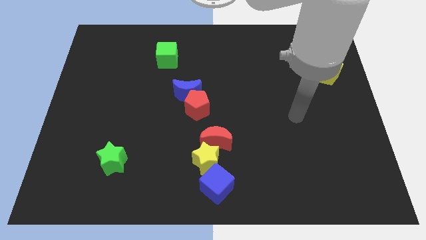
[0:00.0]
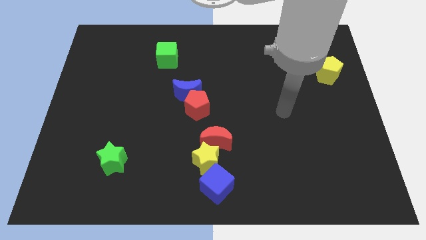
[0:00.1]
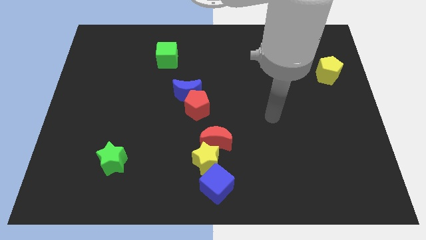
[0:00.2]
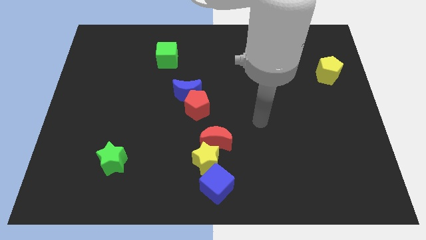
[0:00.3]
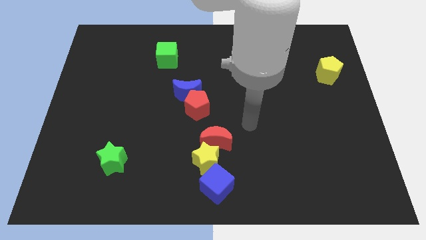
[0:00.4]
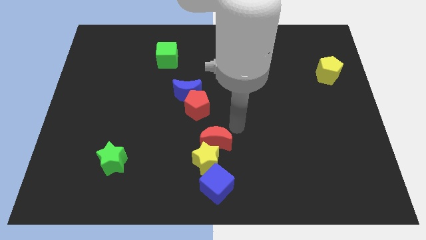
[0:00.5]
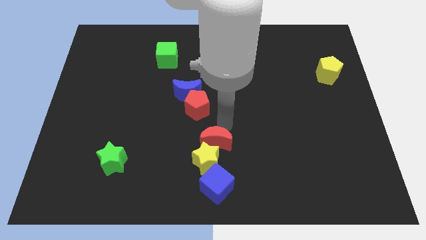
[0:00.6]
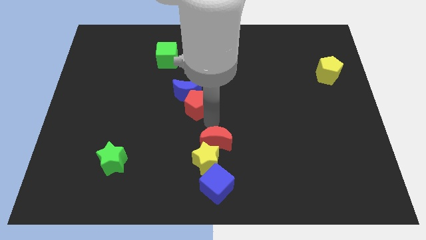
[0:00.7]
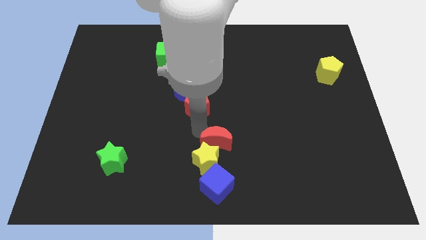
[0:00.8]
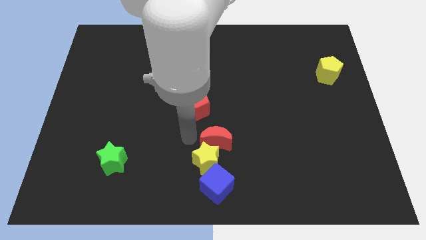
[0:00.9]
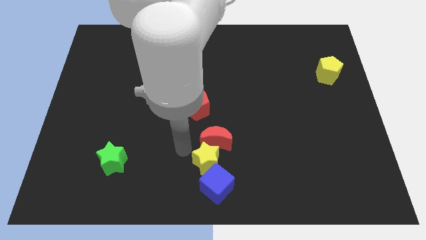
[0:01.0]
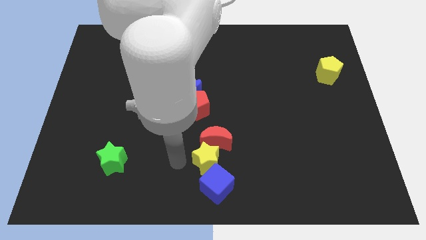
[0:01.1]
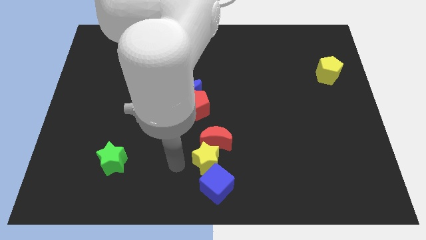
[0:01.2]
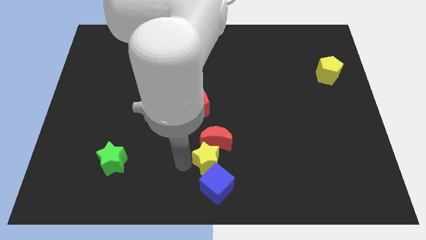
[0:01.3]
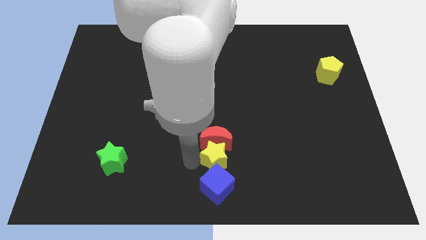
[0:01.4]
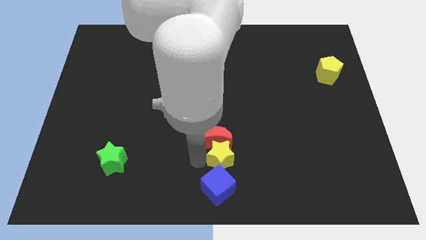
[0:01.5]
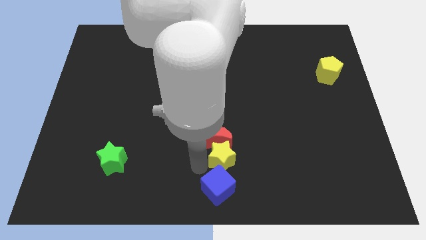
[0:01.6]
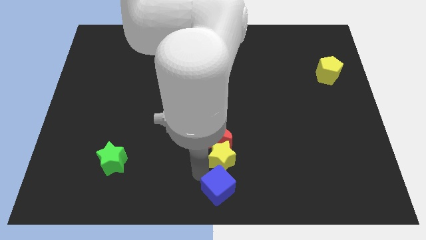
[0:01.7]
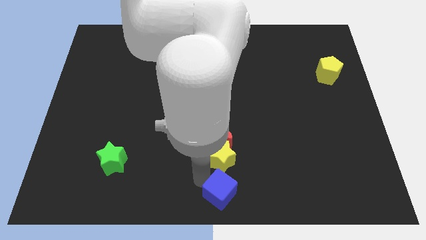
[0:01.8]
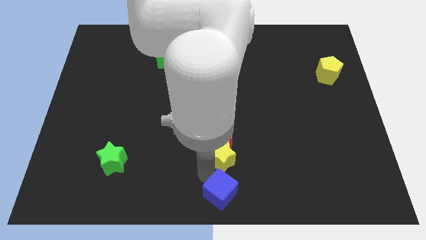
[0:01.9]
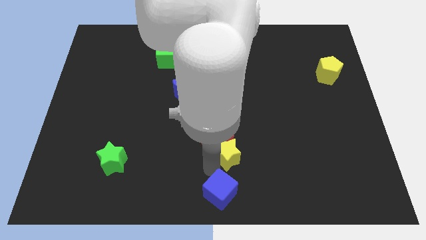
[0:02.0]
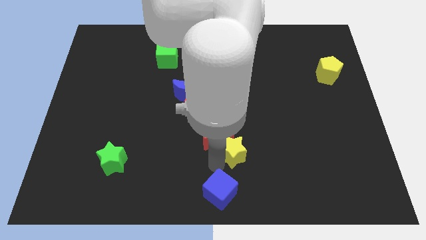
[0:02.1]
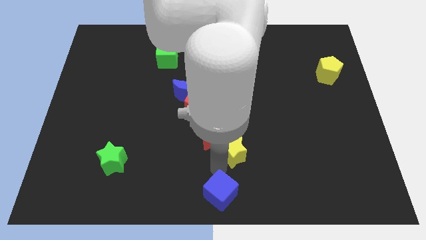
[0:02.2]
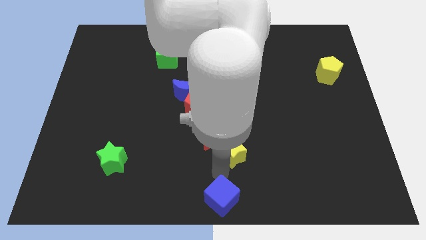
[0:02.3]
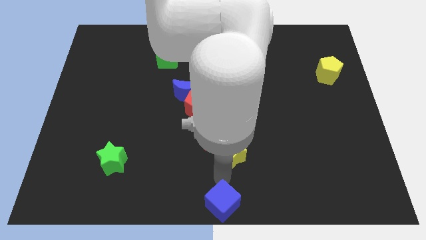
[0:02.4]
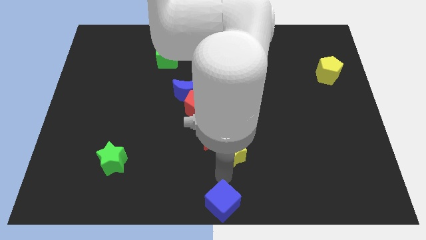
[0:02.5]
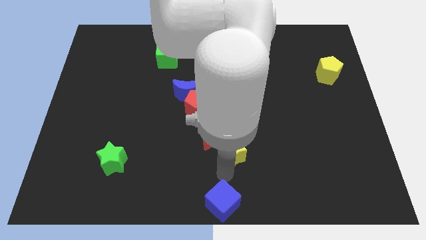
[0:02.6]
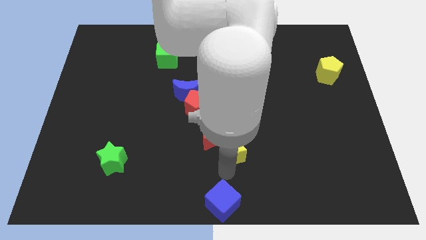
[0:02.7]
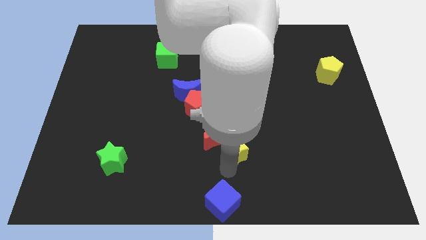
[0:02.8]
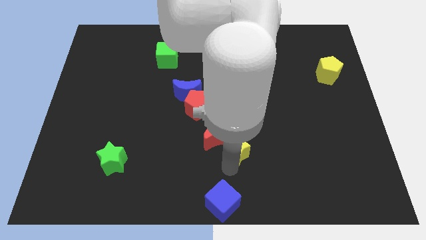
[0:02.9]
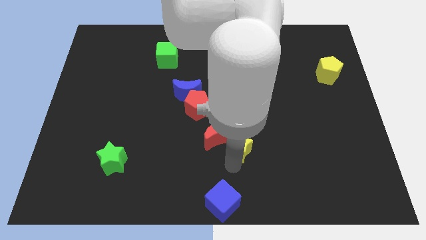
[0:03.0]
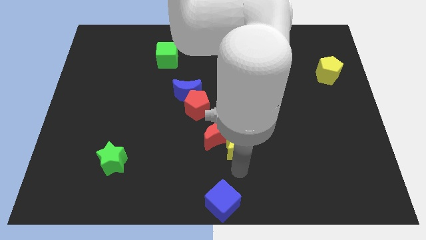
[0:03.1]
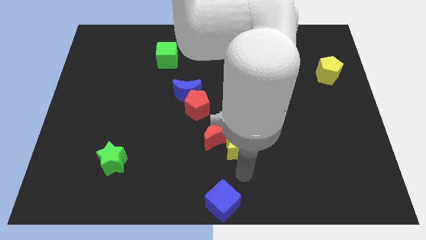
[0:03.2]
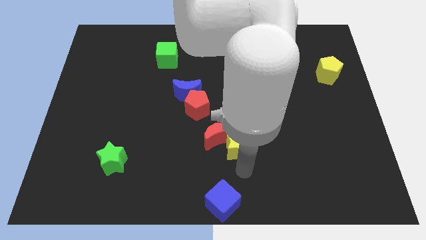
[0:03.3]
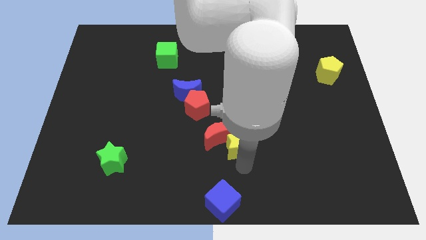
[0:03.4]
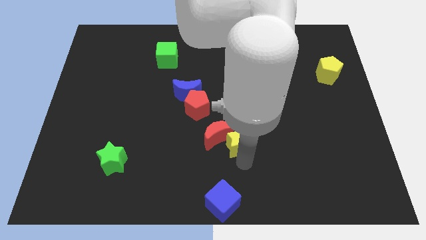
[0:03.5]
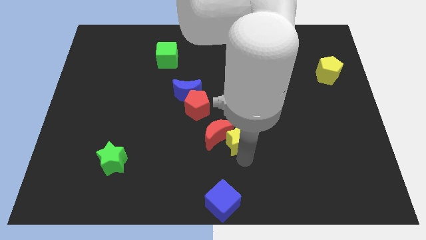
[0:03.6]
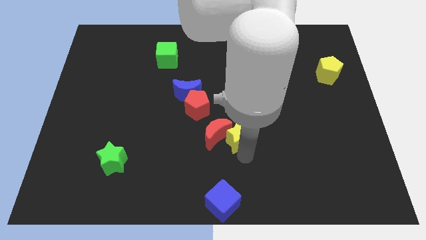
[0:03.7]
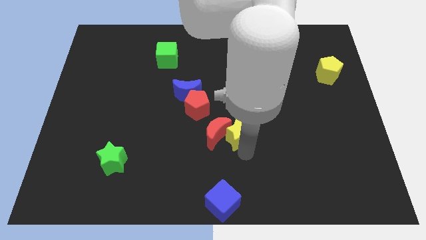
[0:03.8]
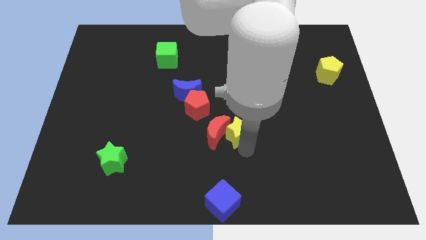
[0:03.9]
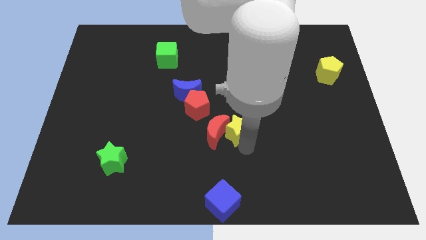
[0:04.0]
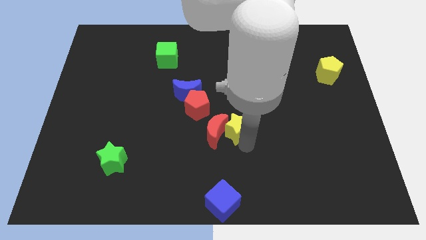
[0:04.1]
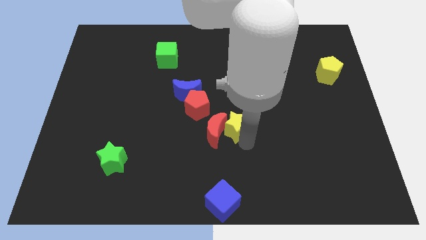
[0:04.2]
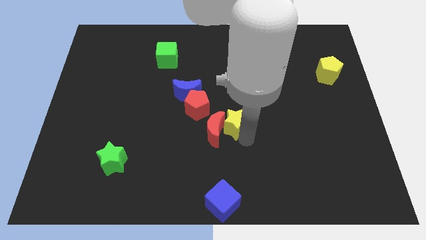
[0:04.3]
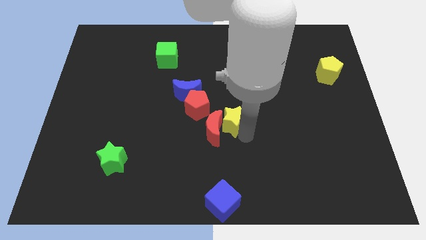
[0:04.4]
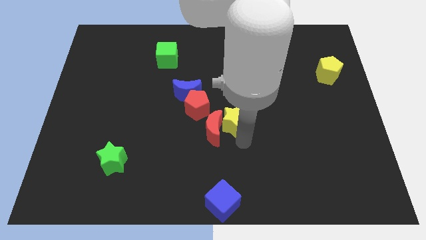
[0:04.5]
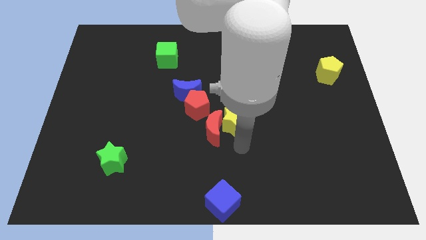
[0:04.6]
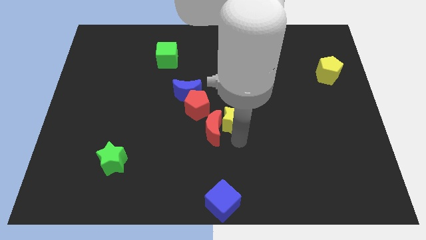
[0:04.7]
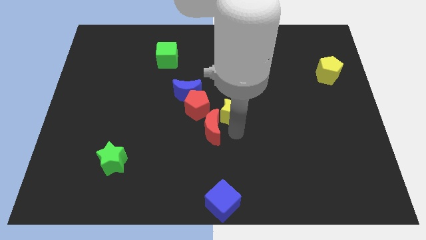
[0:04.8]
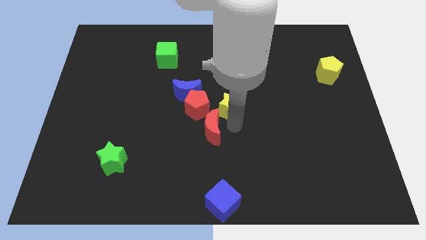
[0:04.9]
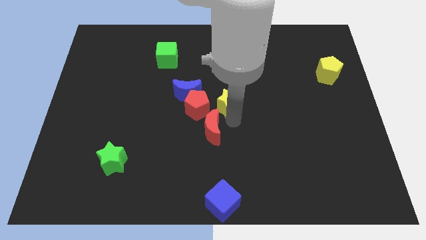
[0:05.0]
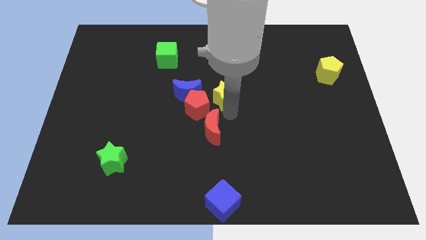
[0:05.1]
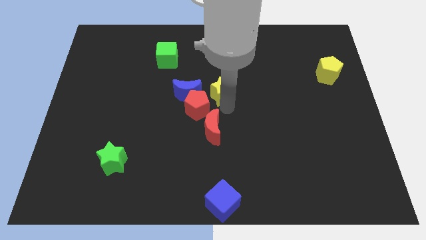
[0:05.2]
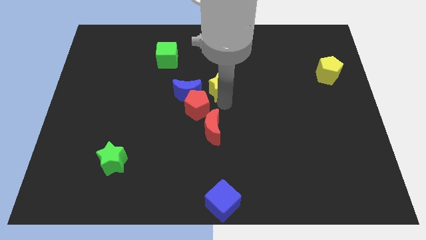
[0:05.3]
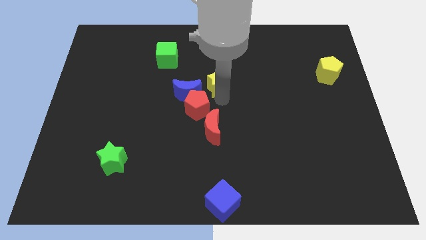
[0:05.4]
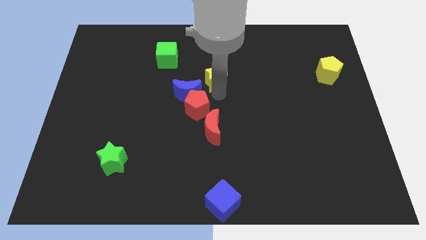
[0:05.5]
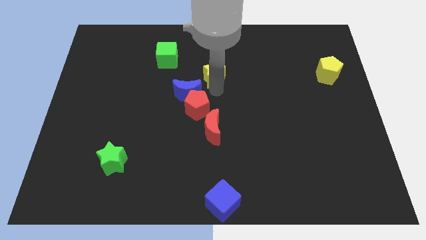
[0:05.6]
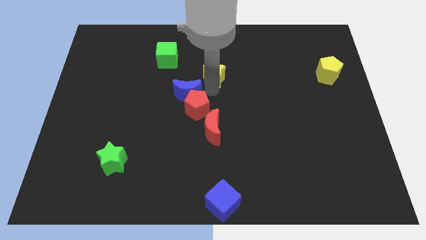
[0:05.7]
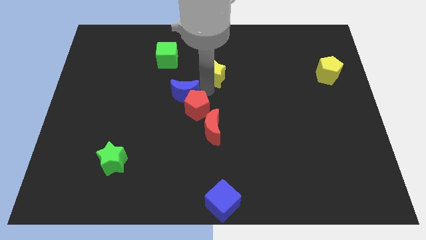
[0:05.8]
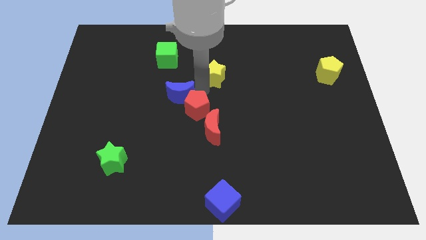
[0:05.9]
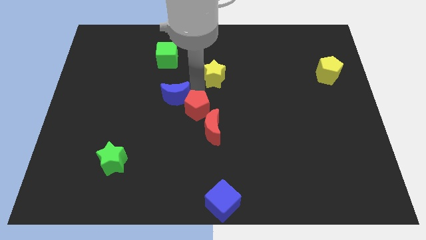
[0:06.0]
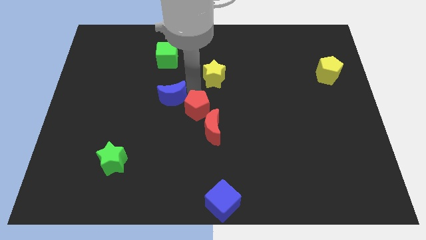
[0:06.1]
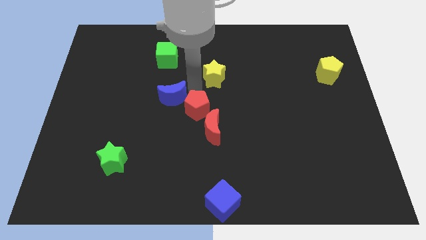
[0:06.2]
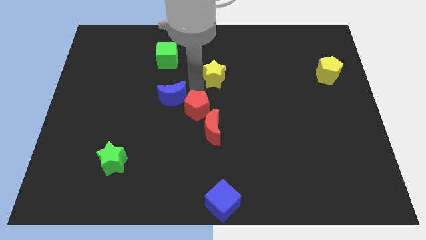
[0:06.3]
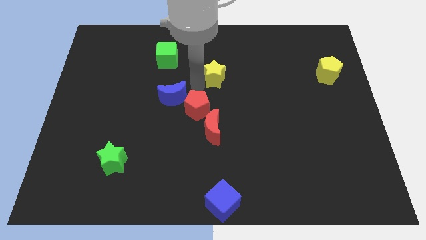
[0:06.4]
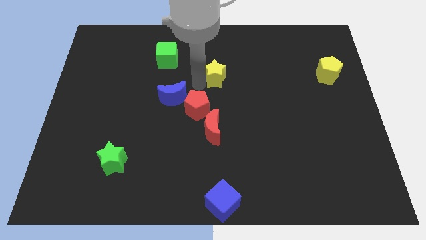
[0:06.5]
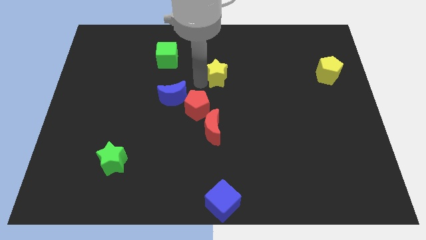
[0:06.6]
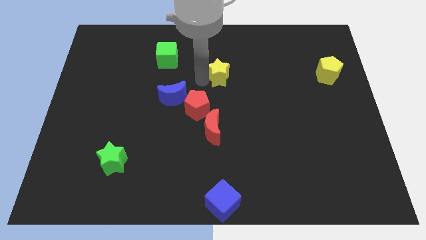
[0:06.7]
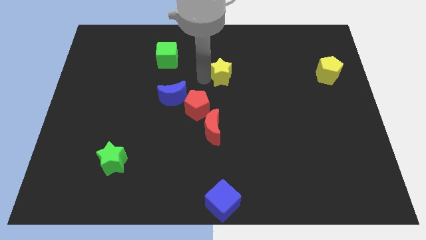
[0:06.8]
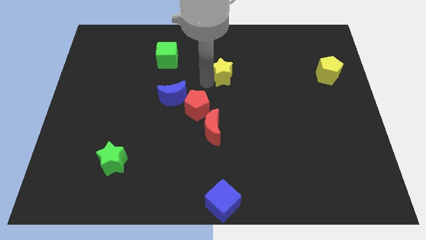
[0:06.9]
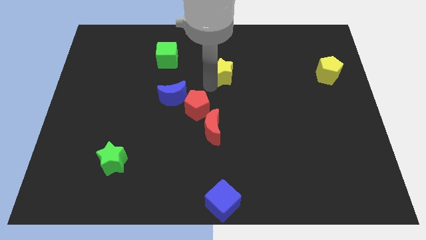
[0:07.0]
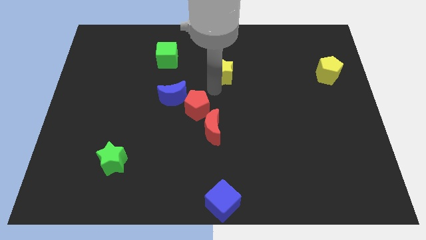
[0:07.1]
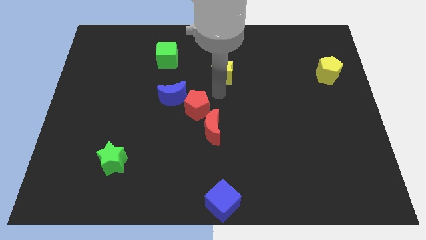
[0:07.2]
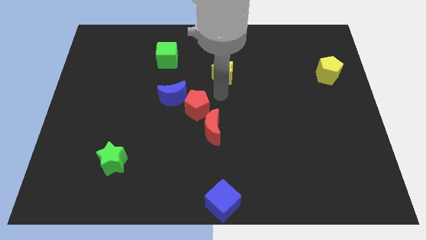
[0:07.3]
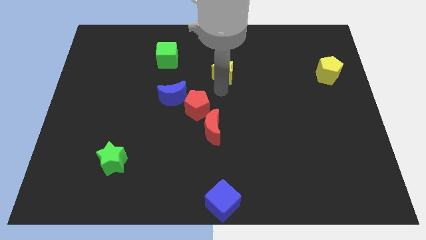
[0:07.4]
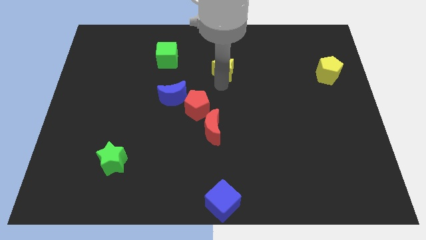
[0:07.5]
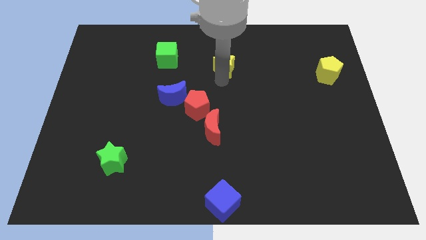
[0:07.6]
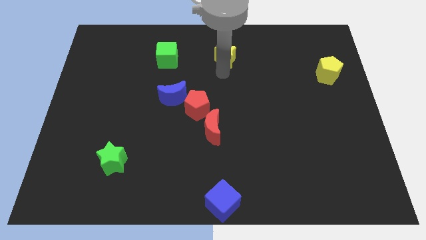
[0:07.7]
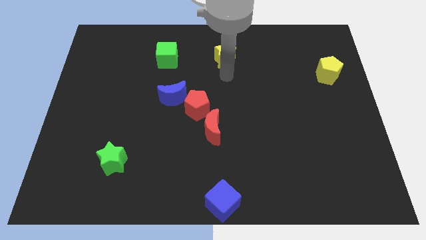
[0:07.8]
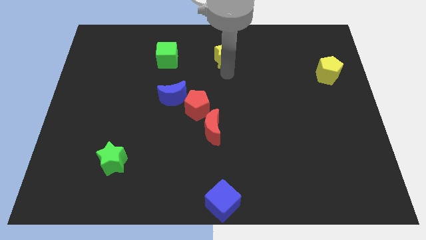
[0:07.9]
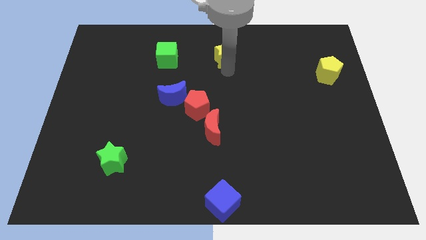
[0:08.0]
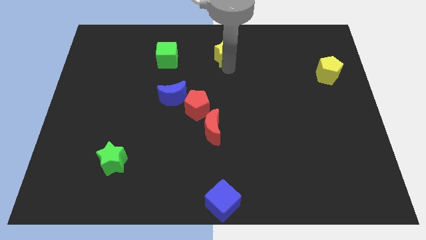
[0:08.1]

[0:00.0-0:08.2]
slide the yellow star to the towards your base
